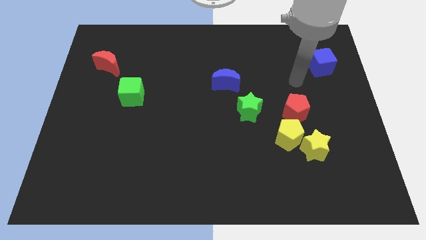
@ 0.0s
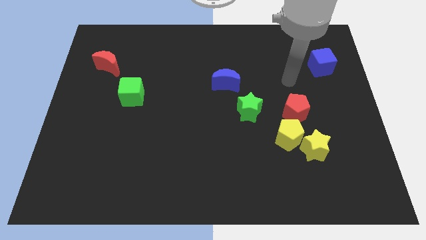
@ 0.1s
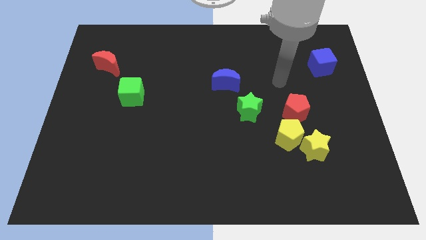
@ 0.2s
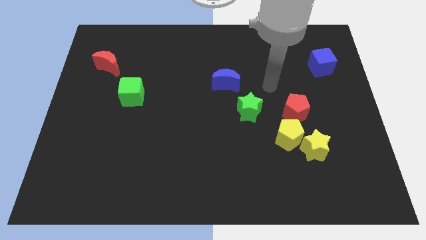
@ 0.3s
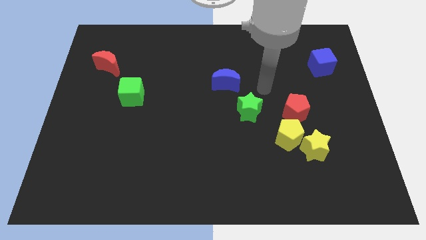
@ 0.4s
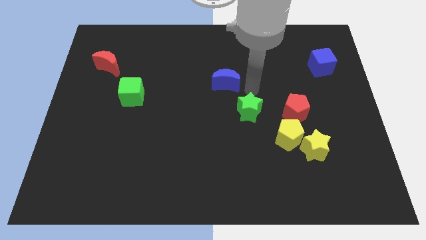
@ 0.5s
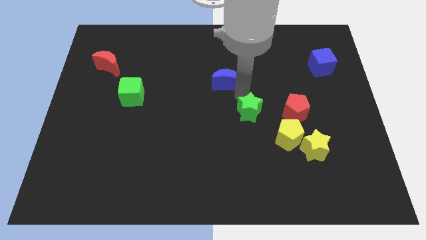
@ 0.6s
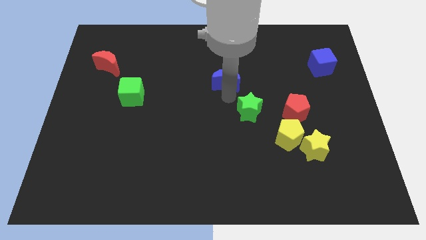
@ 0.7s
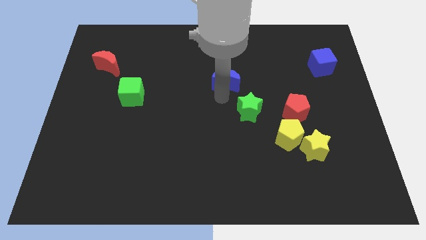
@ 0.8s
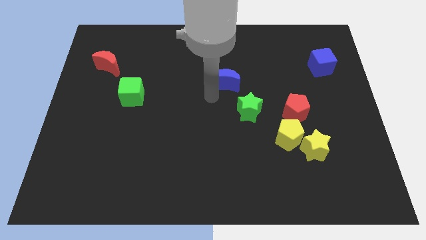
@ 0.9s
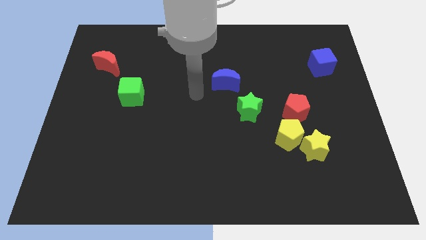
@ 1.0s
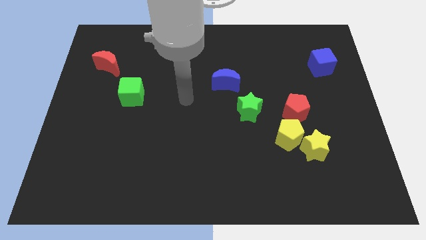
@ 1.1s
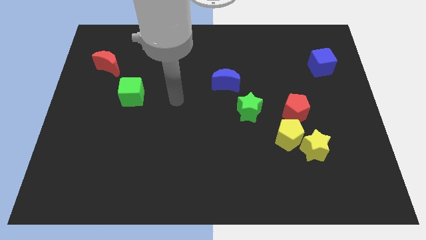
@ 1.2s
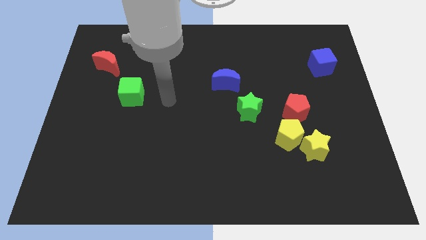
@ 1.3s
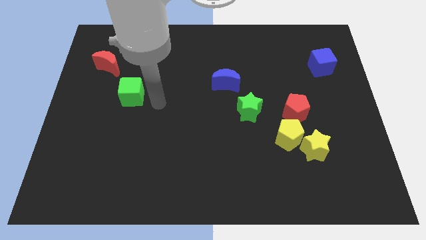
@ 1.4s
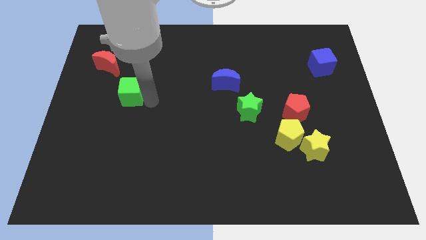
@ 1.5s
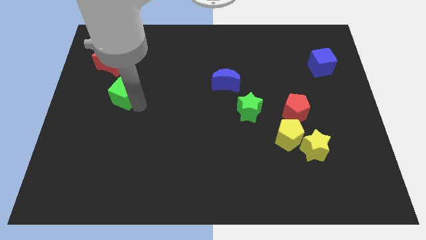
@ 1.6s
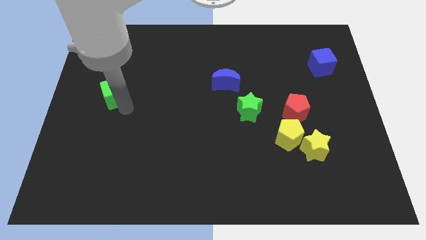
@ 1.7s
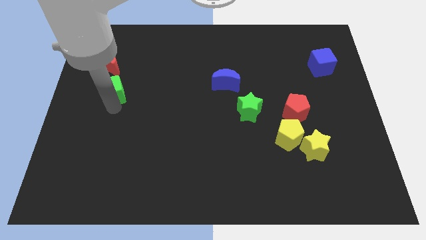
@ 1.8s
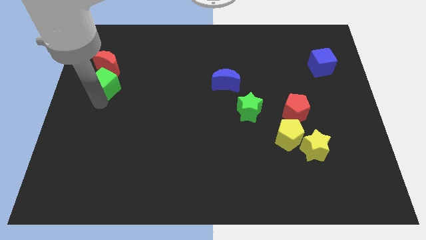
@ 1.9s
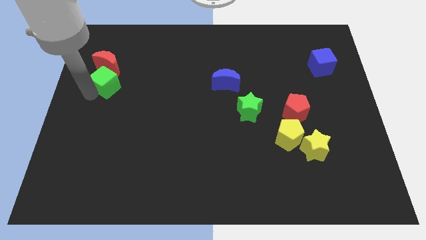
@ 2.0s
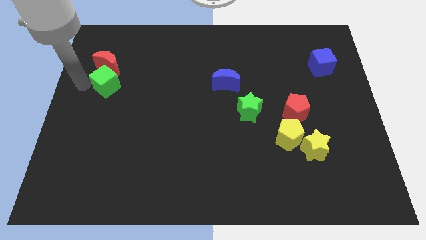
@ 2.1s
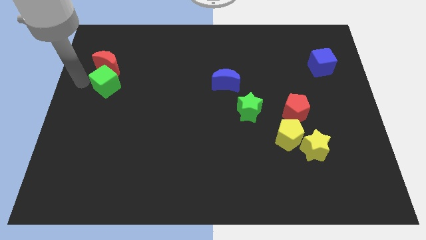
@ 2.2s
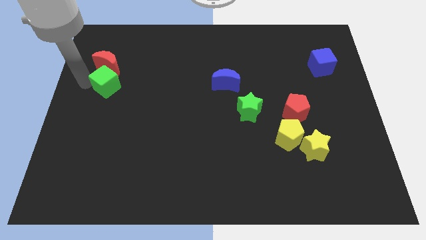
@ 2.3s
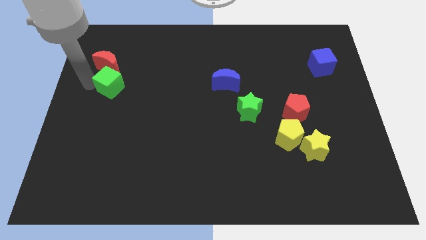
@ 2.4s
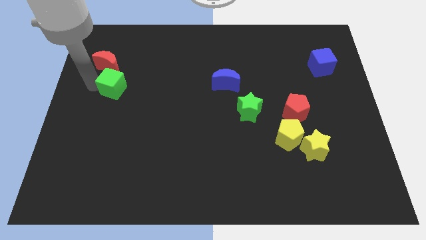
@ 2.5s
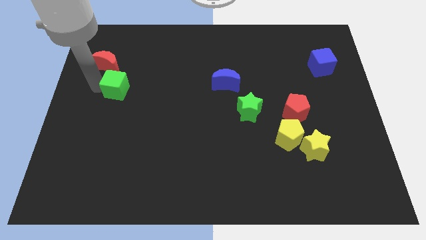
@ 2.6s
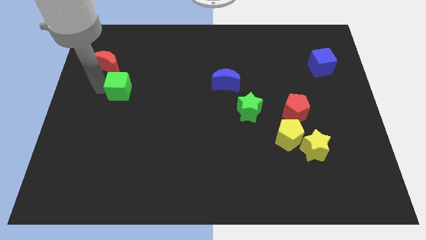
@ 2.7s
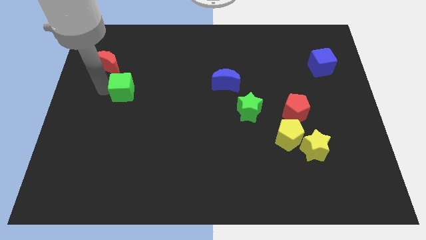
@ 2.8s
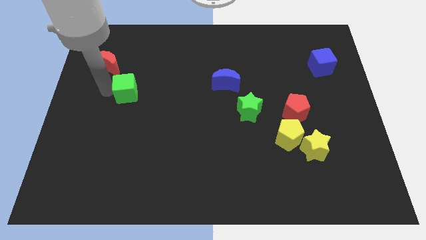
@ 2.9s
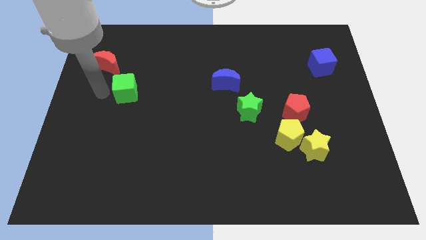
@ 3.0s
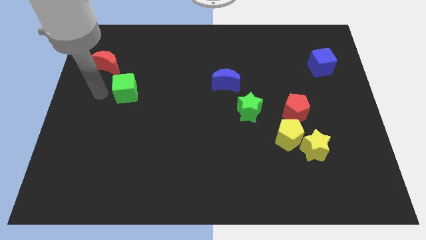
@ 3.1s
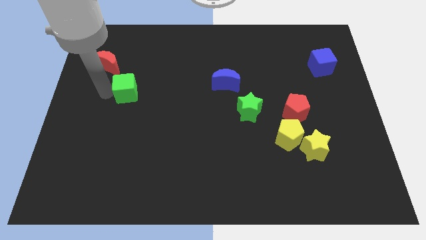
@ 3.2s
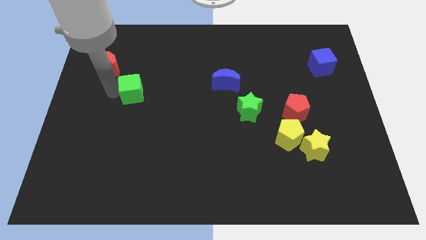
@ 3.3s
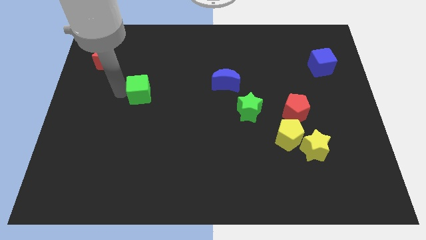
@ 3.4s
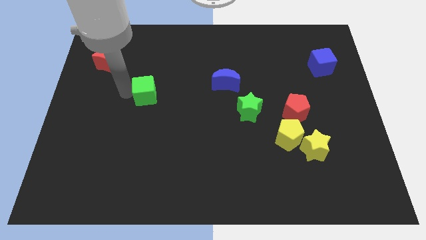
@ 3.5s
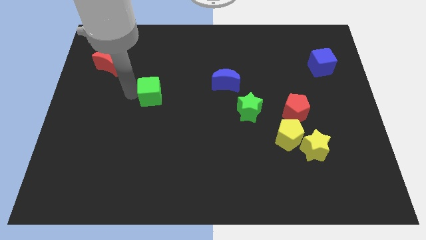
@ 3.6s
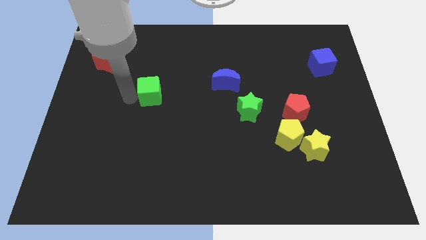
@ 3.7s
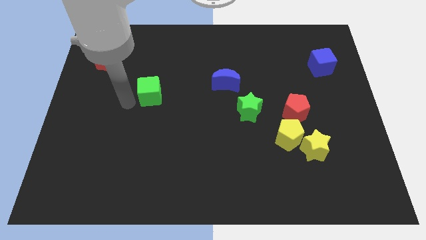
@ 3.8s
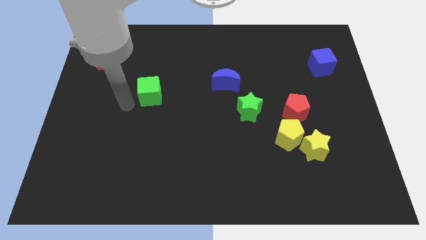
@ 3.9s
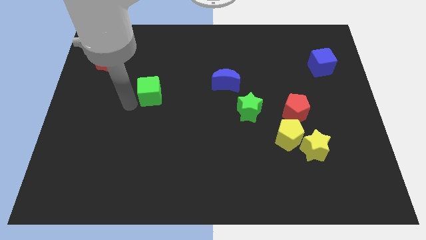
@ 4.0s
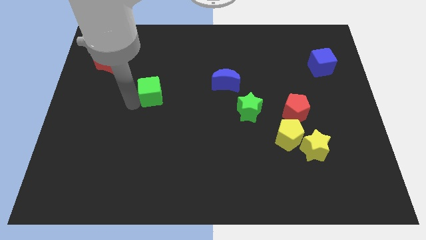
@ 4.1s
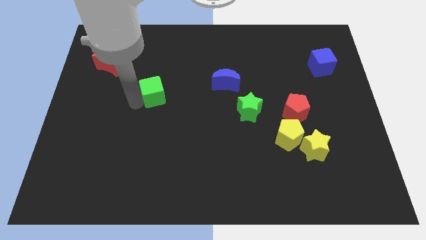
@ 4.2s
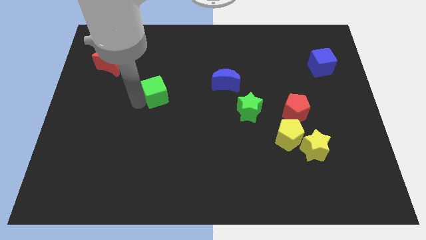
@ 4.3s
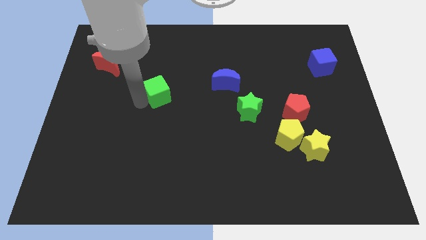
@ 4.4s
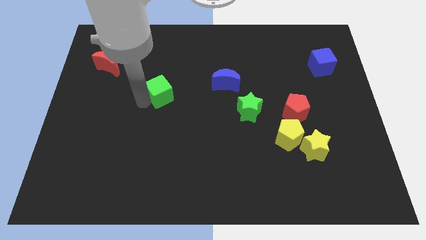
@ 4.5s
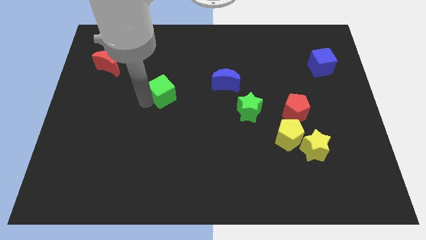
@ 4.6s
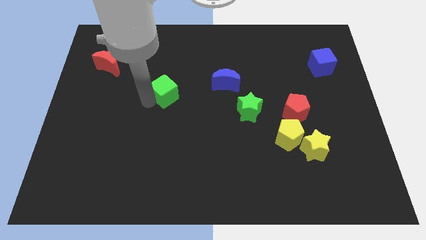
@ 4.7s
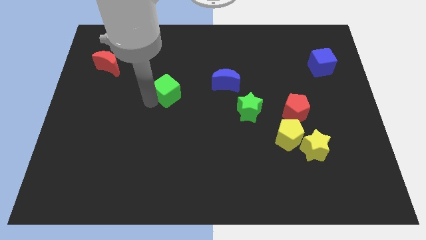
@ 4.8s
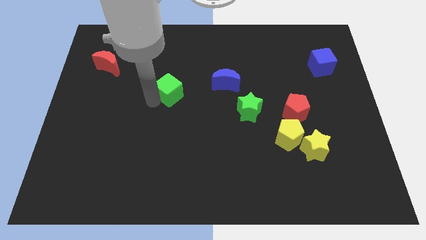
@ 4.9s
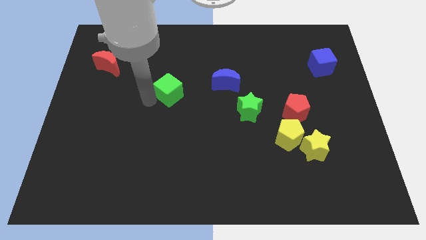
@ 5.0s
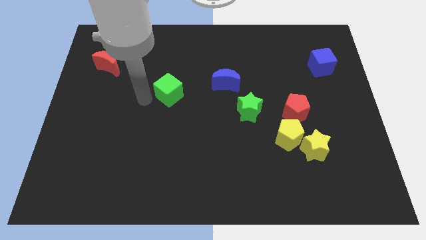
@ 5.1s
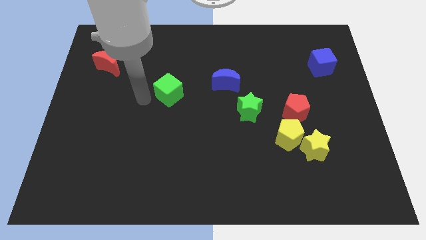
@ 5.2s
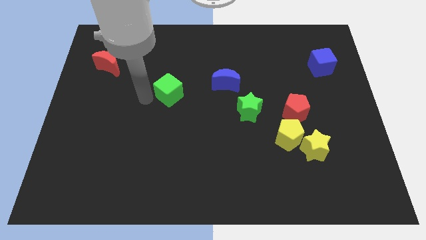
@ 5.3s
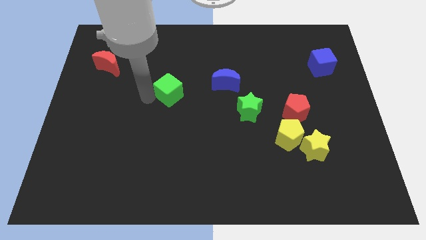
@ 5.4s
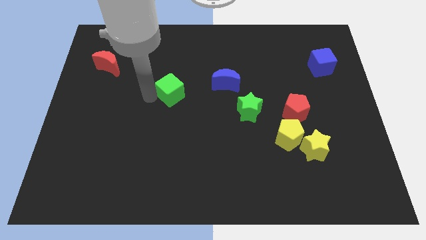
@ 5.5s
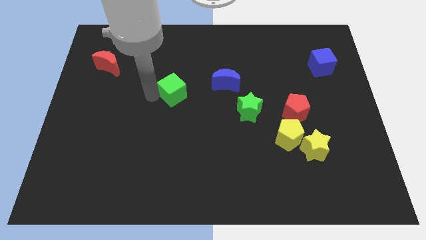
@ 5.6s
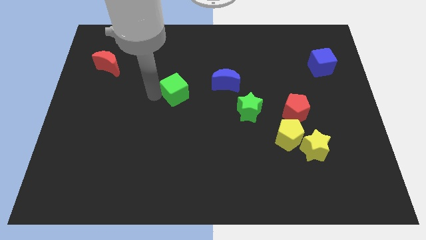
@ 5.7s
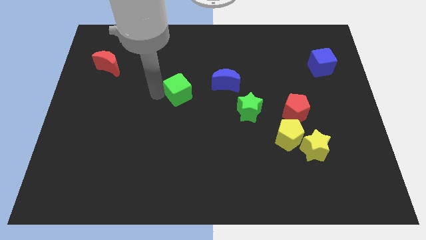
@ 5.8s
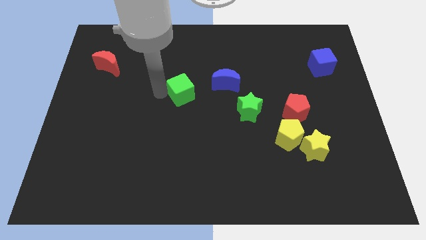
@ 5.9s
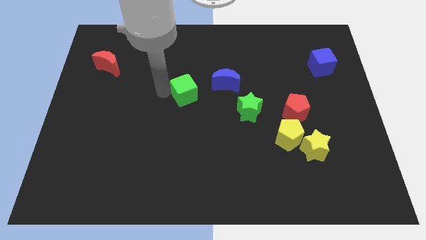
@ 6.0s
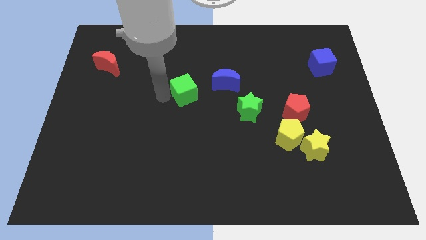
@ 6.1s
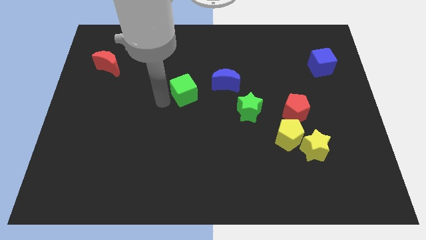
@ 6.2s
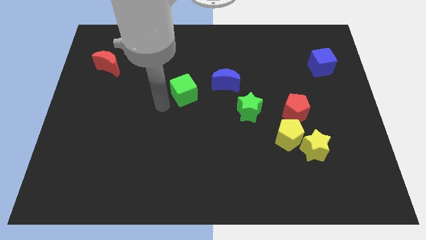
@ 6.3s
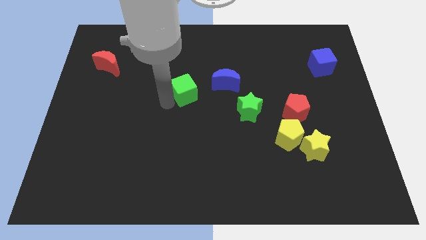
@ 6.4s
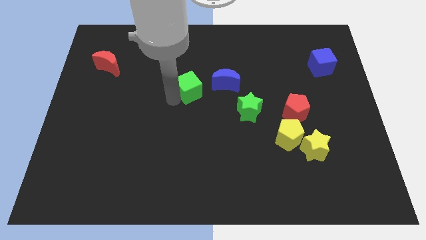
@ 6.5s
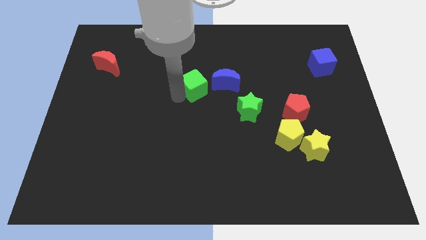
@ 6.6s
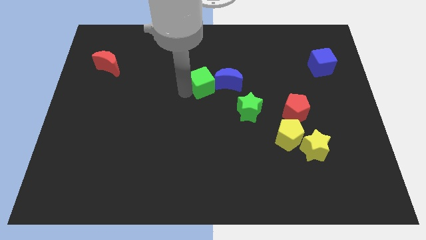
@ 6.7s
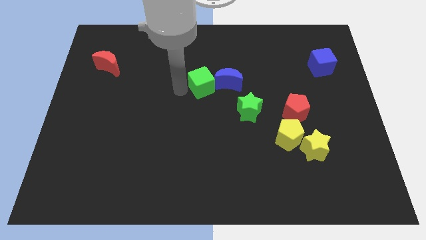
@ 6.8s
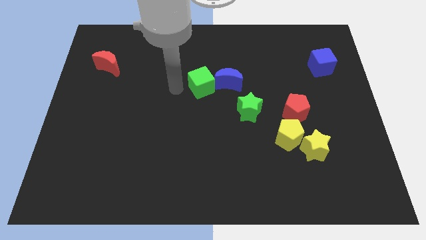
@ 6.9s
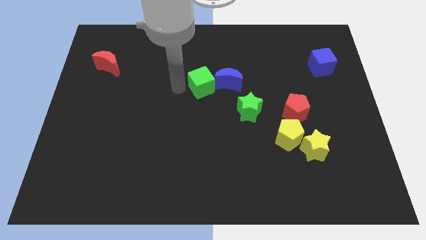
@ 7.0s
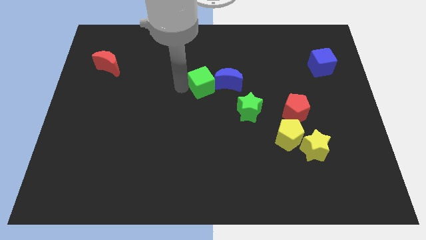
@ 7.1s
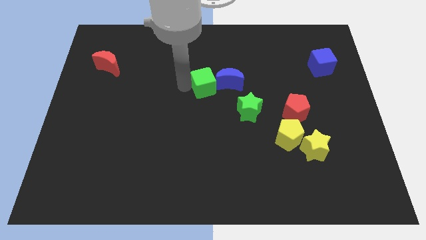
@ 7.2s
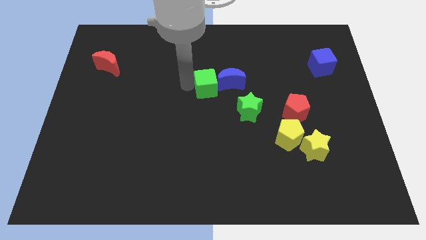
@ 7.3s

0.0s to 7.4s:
move the green cube close to the blue moon
